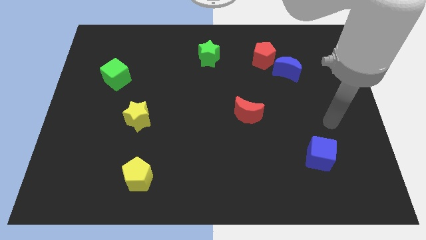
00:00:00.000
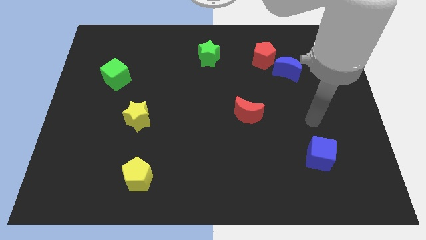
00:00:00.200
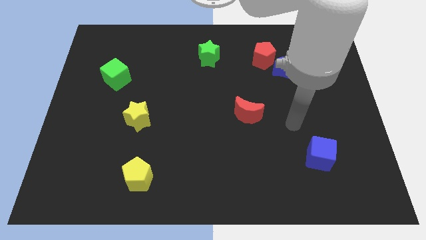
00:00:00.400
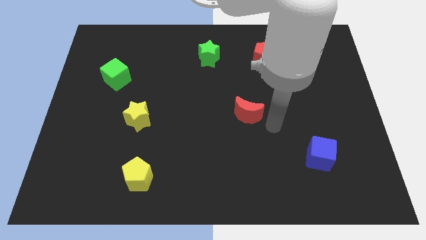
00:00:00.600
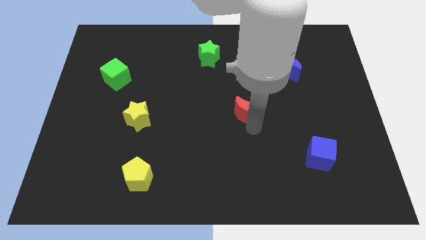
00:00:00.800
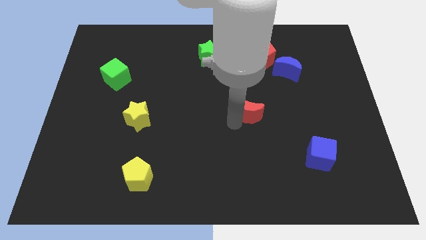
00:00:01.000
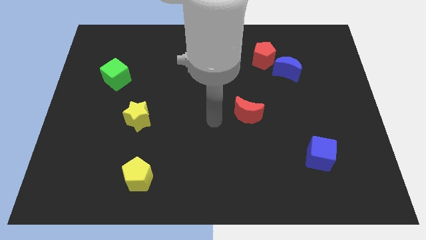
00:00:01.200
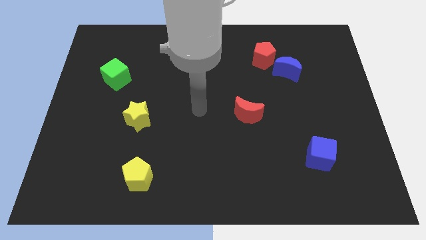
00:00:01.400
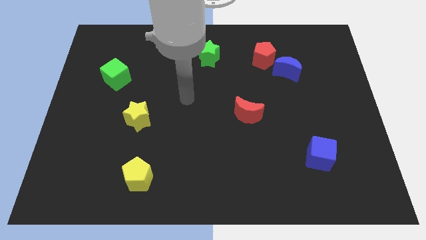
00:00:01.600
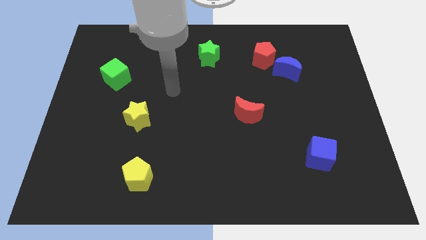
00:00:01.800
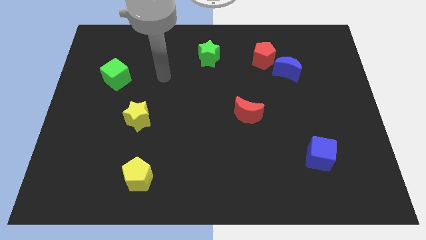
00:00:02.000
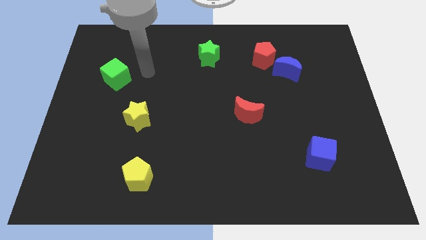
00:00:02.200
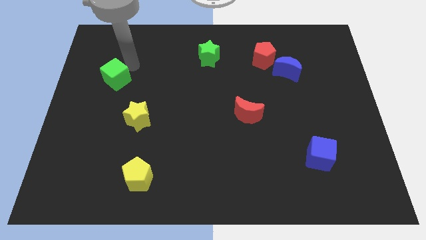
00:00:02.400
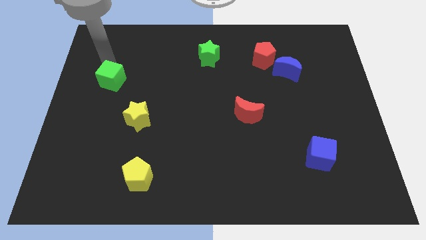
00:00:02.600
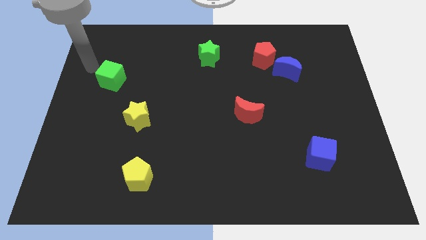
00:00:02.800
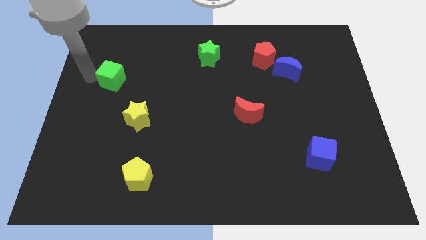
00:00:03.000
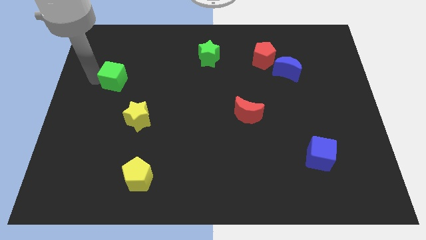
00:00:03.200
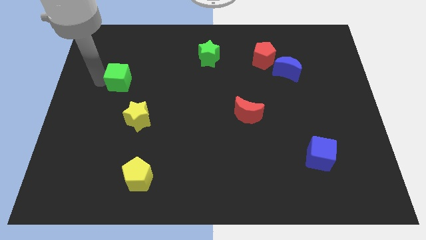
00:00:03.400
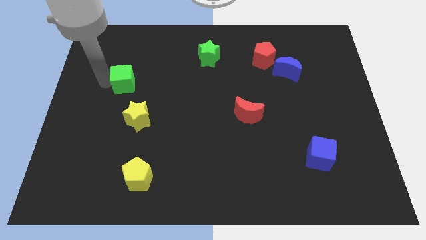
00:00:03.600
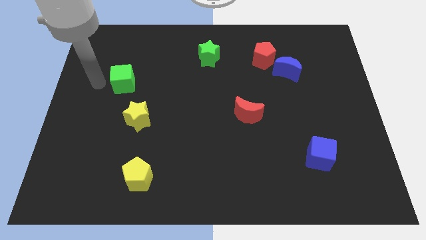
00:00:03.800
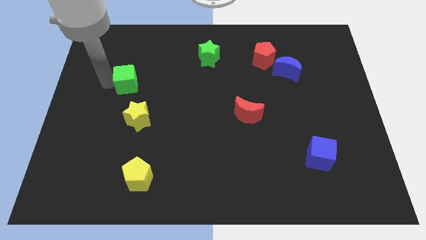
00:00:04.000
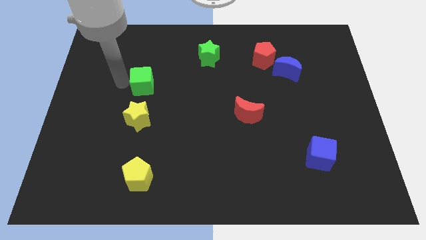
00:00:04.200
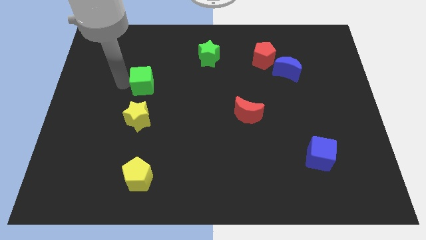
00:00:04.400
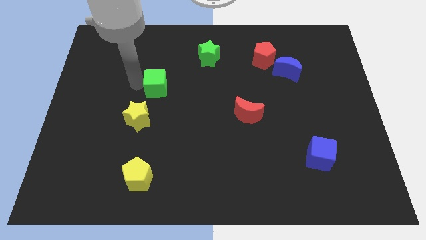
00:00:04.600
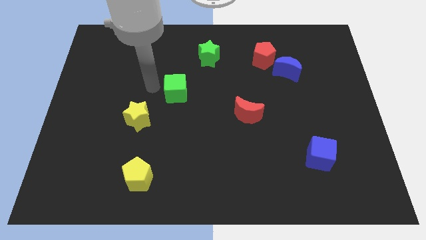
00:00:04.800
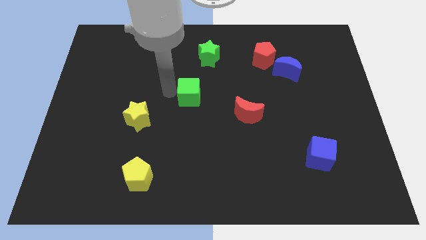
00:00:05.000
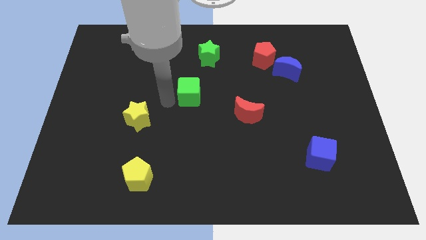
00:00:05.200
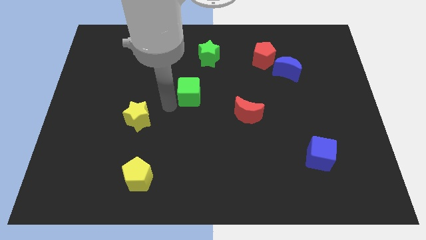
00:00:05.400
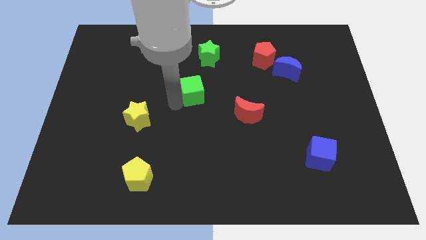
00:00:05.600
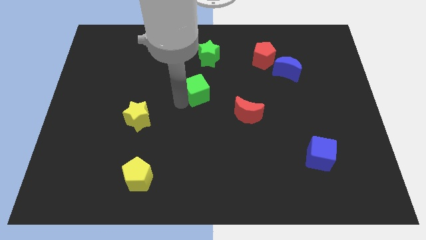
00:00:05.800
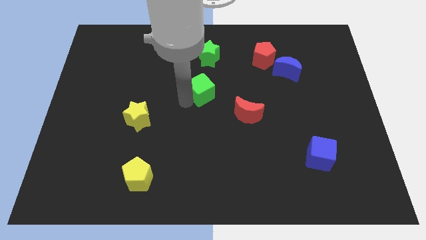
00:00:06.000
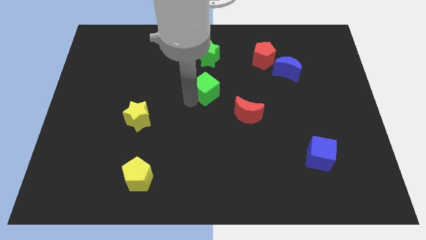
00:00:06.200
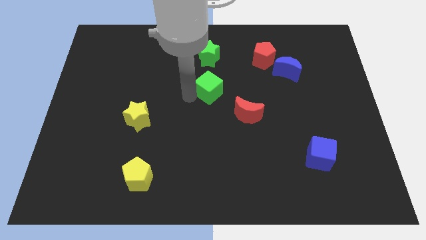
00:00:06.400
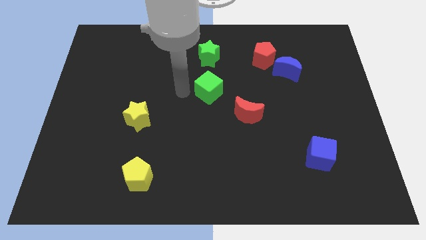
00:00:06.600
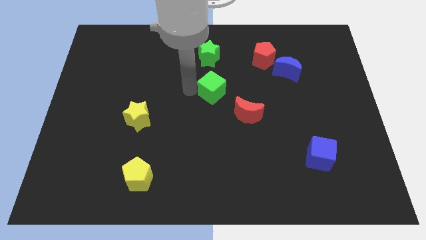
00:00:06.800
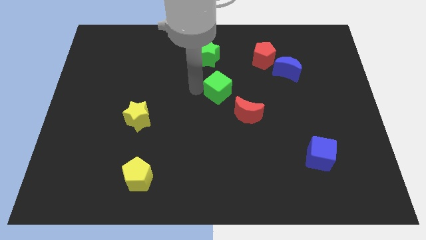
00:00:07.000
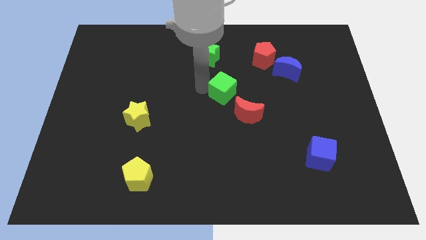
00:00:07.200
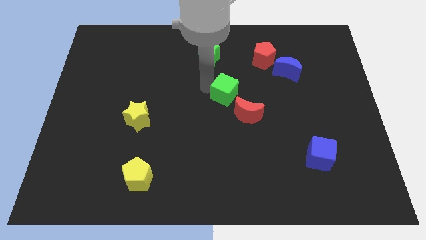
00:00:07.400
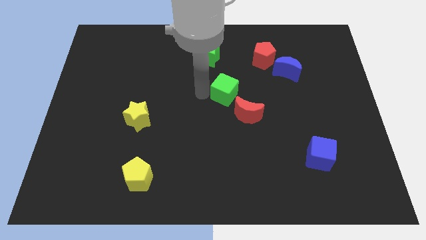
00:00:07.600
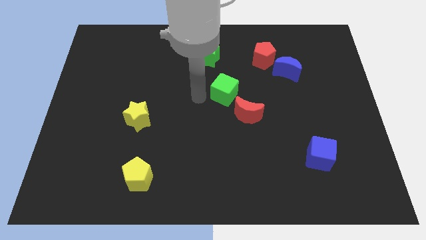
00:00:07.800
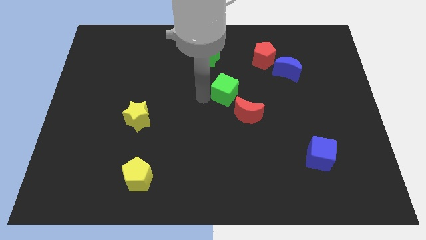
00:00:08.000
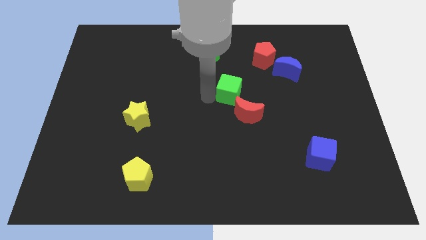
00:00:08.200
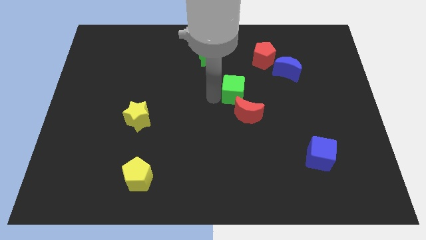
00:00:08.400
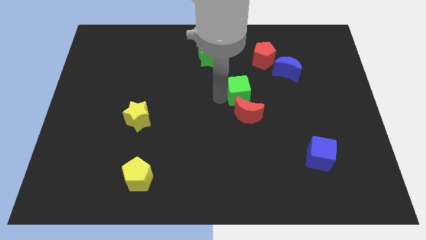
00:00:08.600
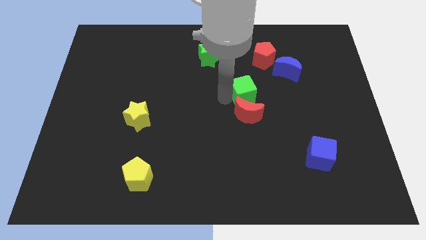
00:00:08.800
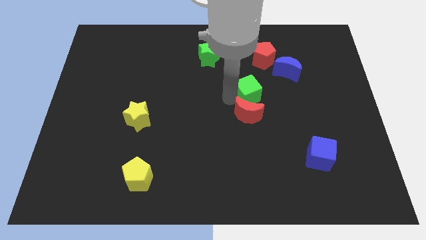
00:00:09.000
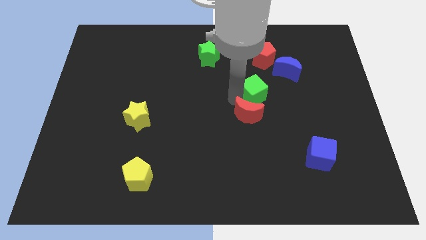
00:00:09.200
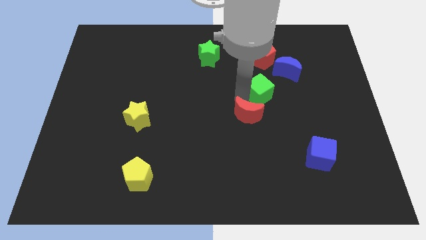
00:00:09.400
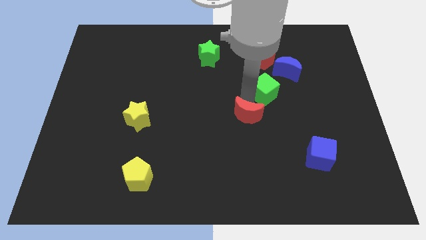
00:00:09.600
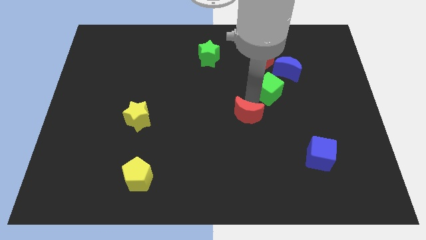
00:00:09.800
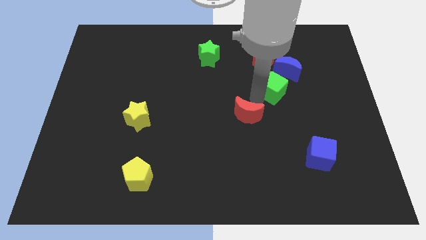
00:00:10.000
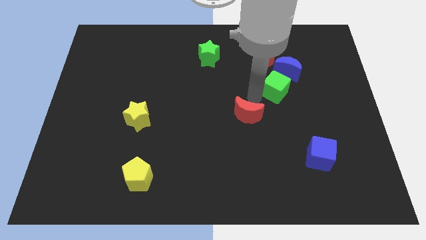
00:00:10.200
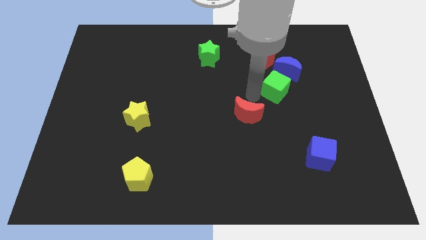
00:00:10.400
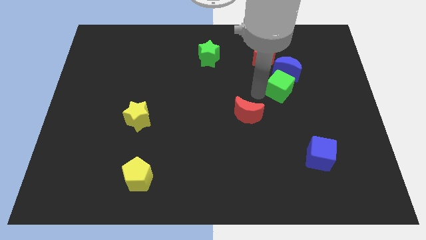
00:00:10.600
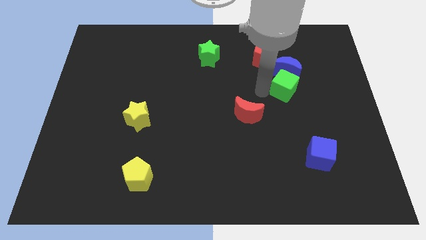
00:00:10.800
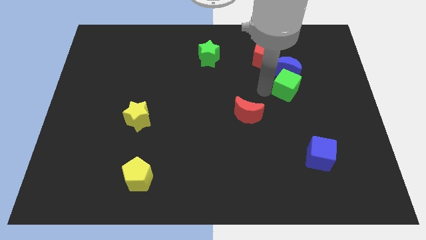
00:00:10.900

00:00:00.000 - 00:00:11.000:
move the green cube diagonally down and to the right of the blue moon
